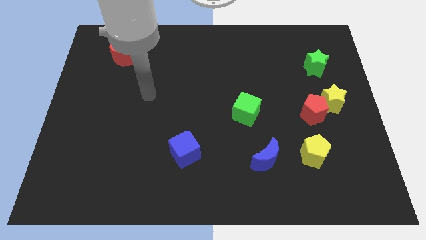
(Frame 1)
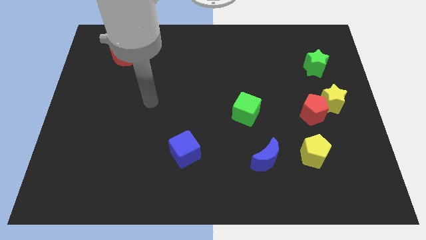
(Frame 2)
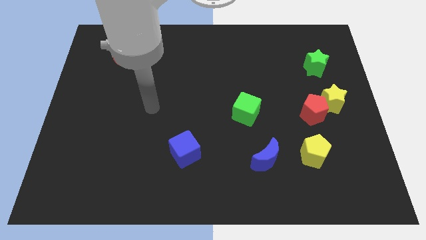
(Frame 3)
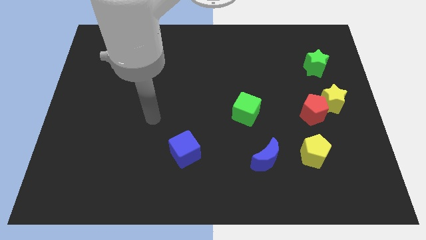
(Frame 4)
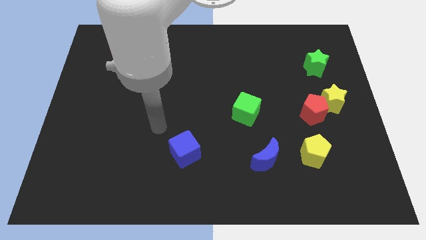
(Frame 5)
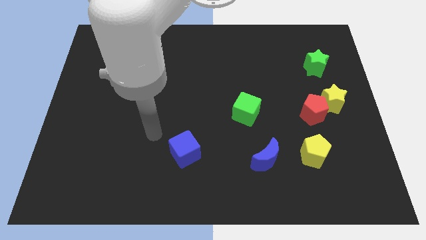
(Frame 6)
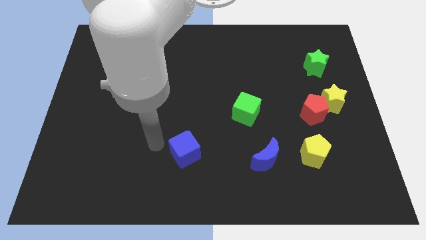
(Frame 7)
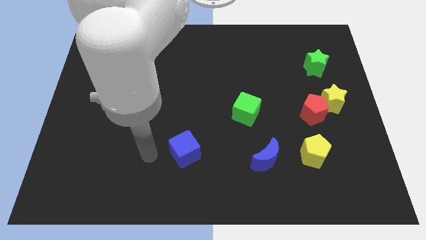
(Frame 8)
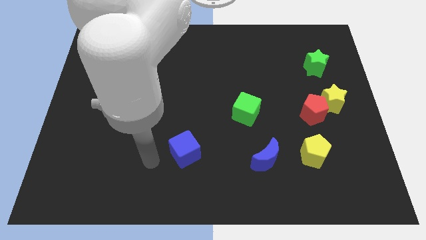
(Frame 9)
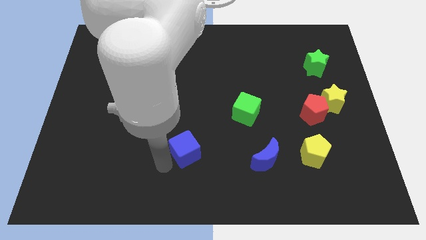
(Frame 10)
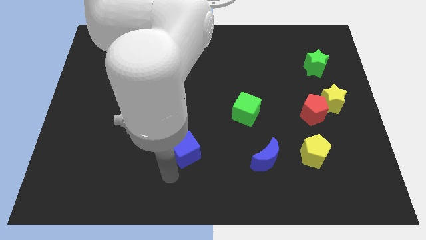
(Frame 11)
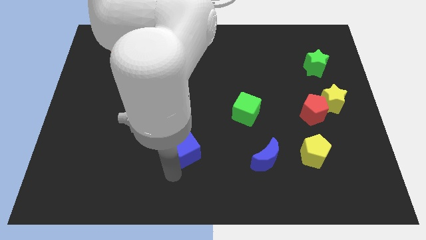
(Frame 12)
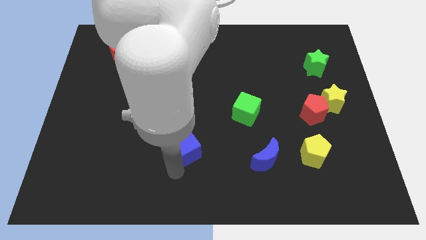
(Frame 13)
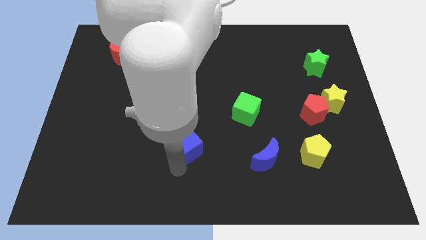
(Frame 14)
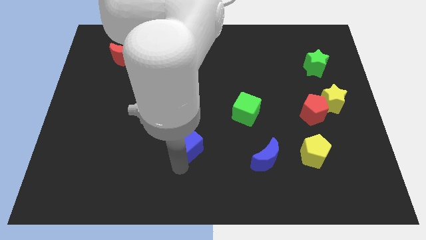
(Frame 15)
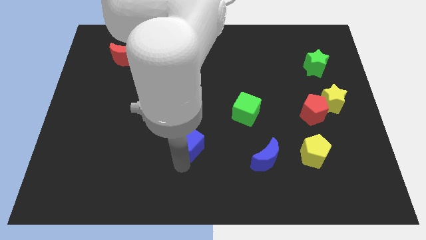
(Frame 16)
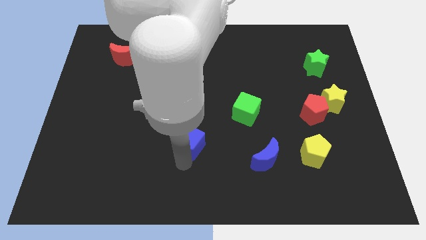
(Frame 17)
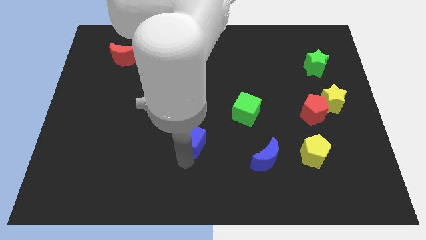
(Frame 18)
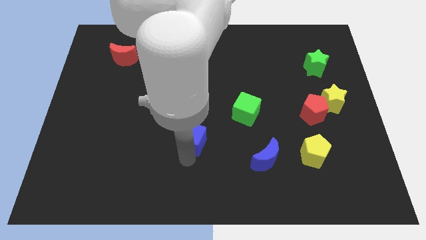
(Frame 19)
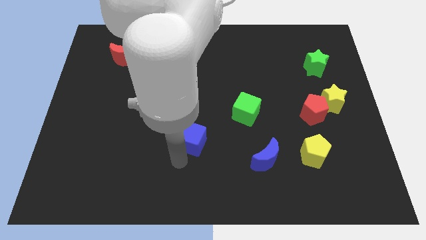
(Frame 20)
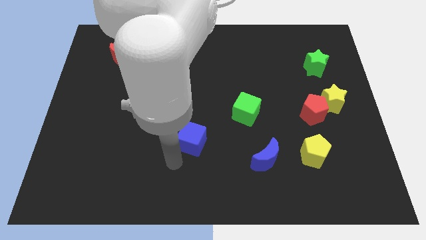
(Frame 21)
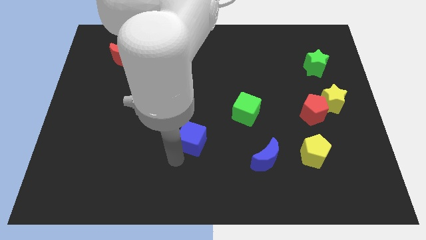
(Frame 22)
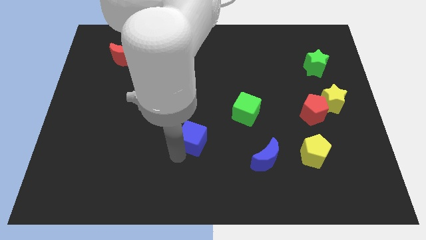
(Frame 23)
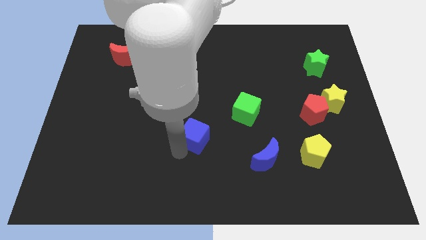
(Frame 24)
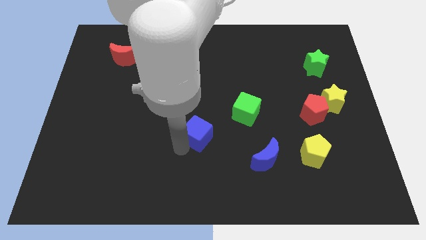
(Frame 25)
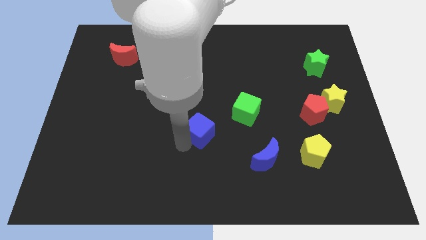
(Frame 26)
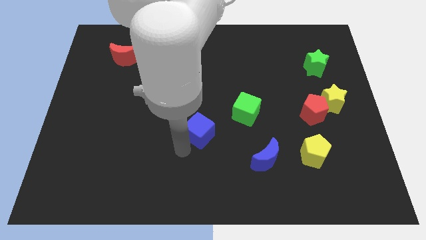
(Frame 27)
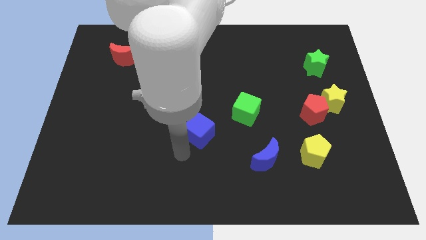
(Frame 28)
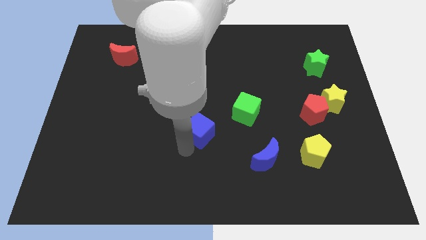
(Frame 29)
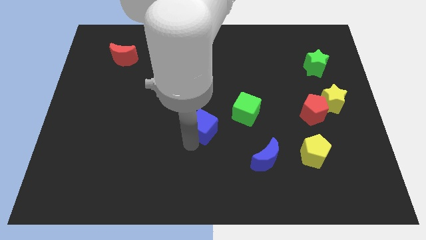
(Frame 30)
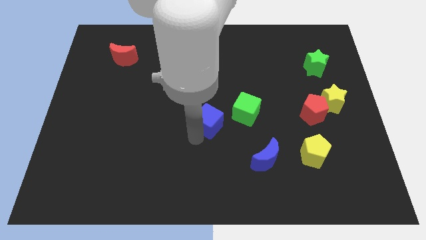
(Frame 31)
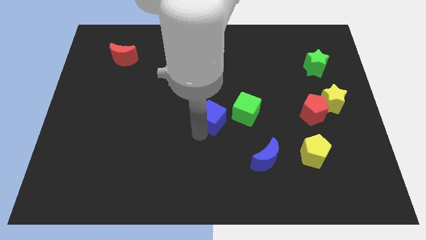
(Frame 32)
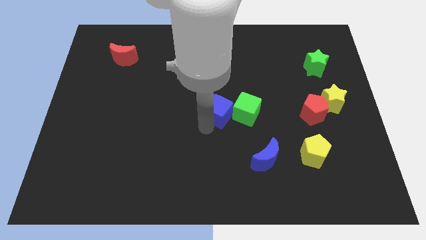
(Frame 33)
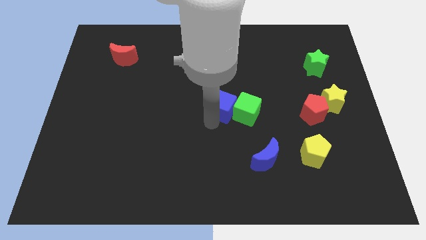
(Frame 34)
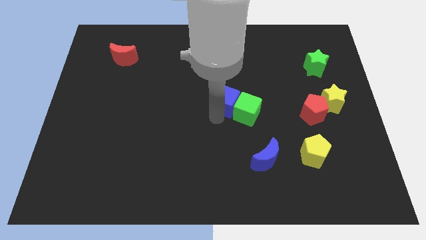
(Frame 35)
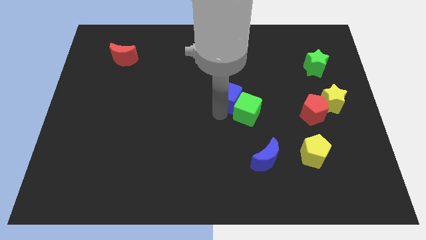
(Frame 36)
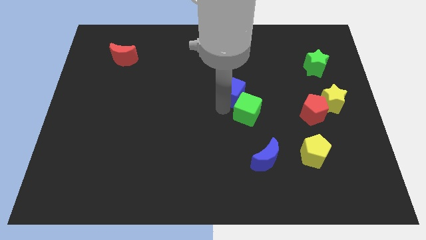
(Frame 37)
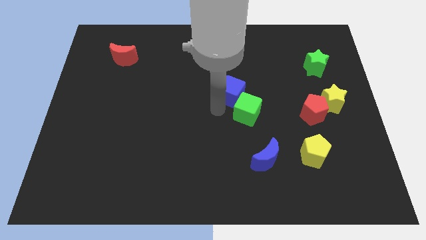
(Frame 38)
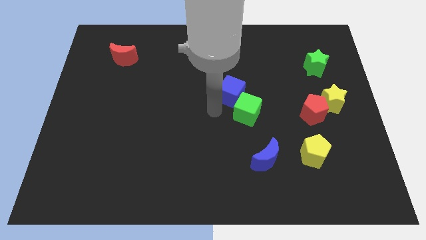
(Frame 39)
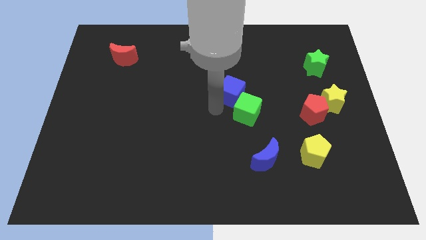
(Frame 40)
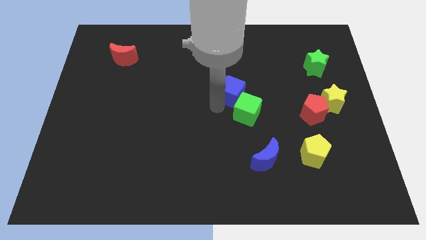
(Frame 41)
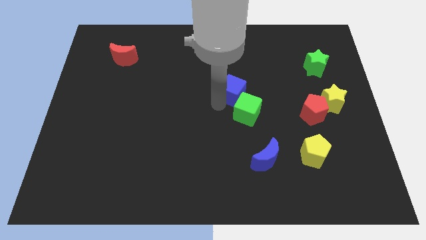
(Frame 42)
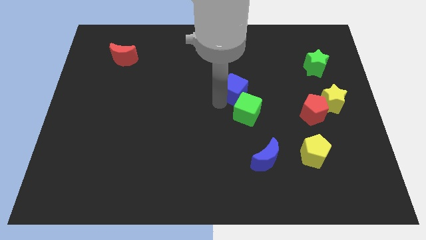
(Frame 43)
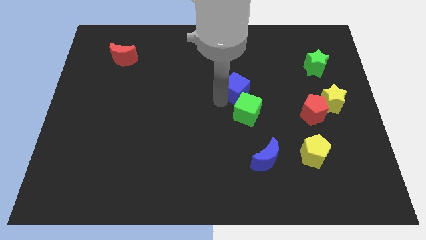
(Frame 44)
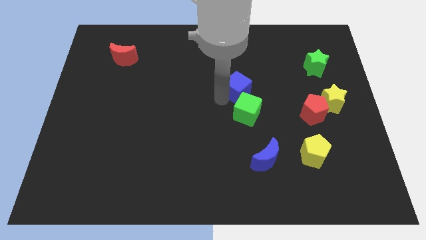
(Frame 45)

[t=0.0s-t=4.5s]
move the blue cube upwards and then right

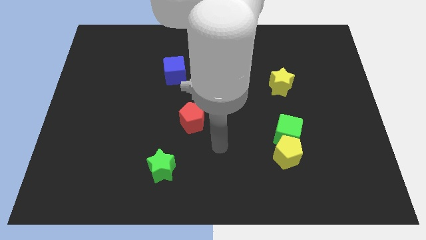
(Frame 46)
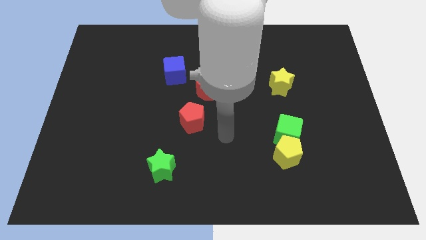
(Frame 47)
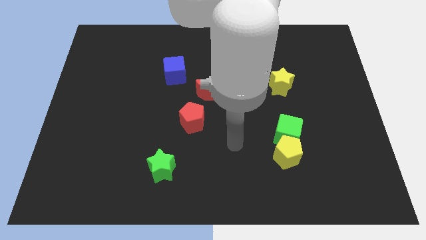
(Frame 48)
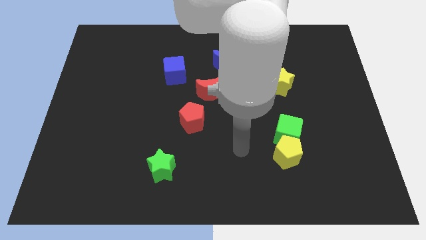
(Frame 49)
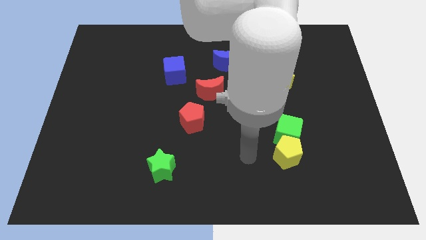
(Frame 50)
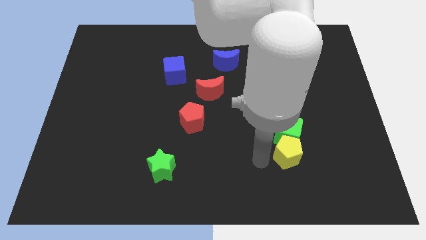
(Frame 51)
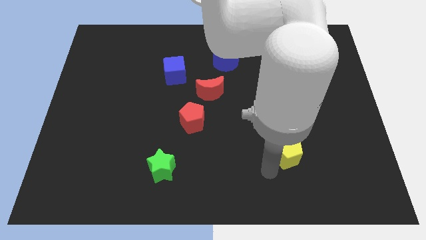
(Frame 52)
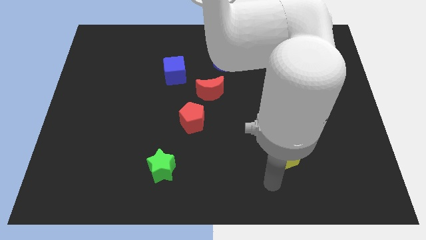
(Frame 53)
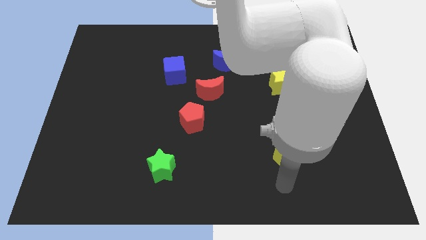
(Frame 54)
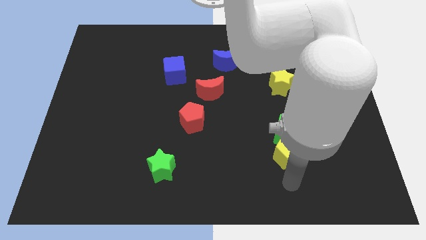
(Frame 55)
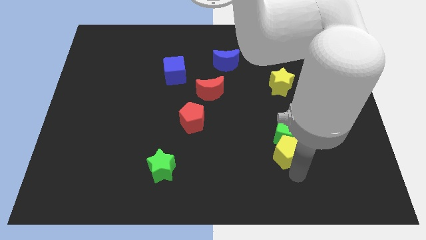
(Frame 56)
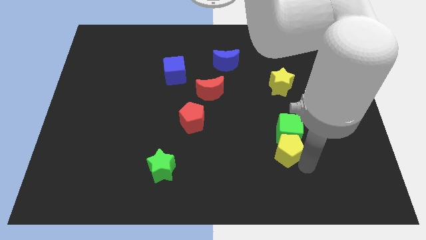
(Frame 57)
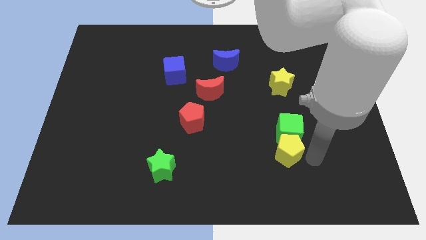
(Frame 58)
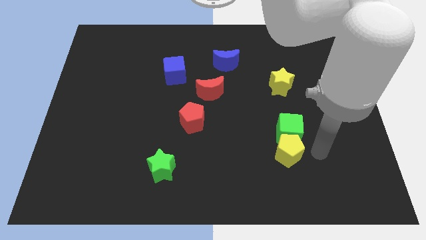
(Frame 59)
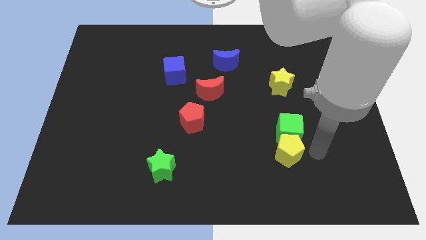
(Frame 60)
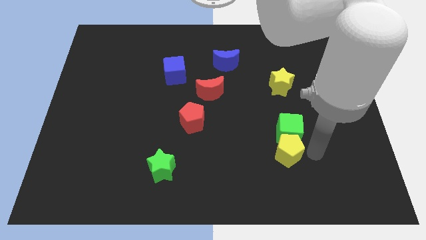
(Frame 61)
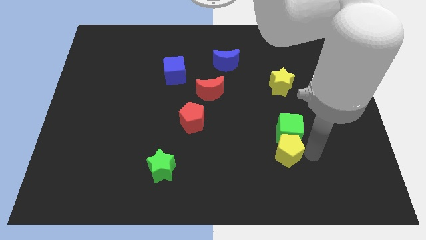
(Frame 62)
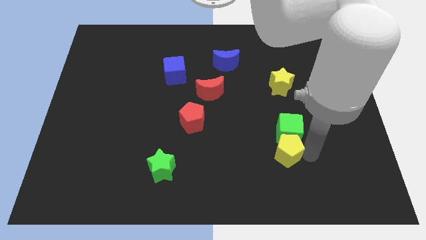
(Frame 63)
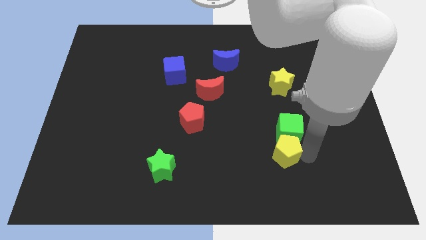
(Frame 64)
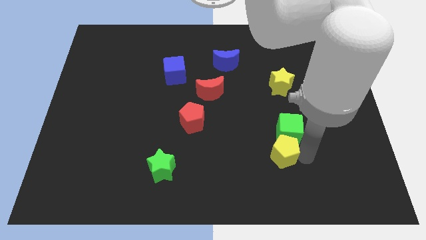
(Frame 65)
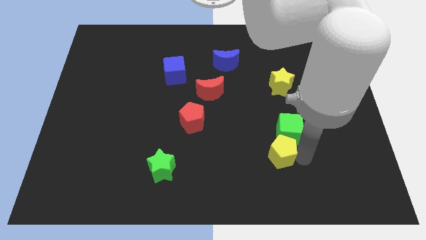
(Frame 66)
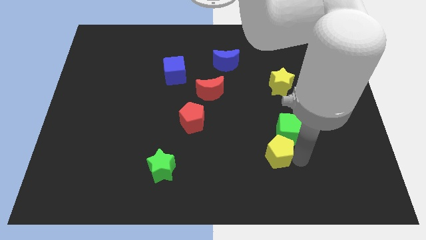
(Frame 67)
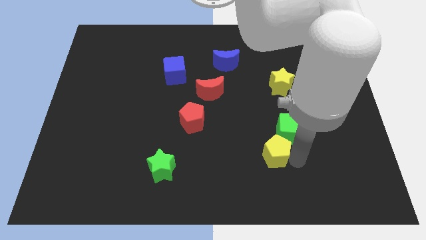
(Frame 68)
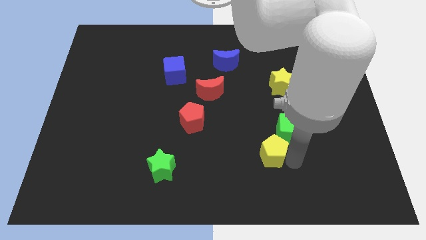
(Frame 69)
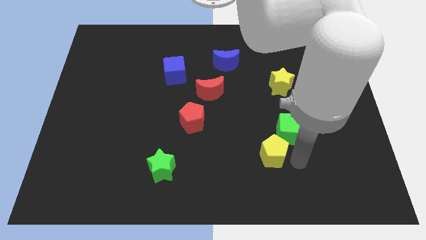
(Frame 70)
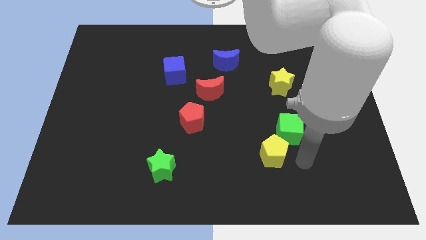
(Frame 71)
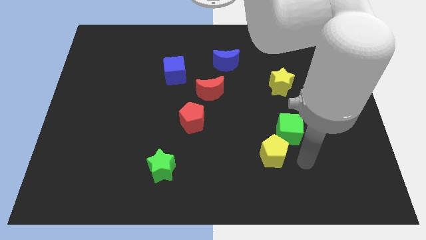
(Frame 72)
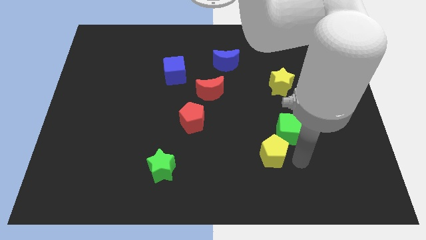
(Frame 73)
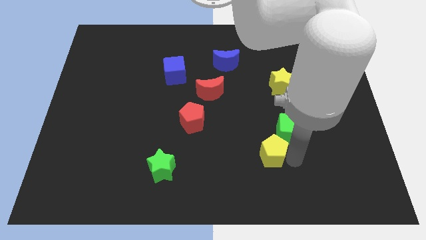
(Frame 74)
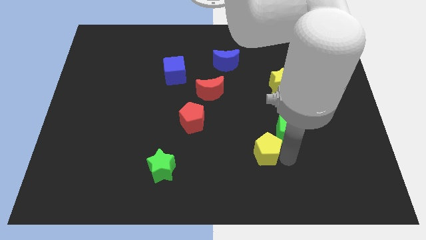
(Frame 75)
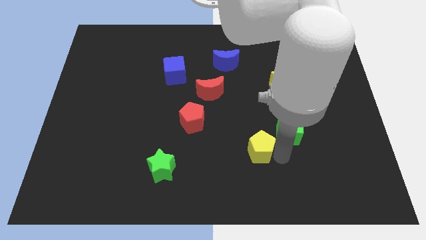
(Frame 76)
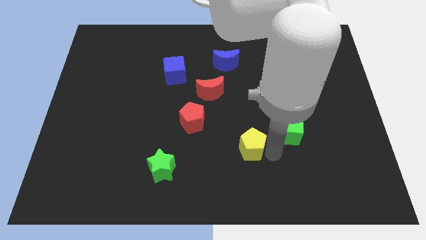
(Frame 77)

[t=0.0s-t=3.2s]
move the yellow pentagon to the left a little bit
